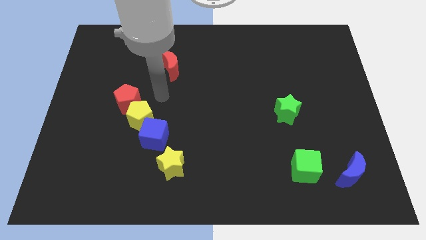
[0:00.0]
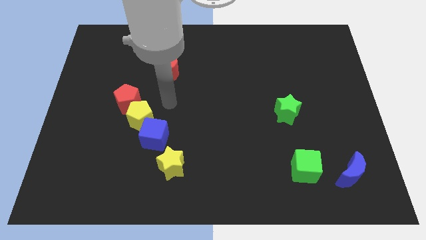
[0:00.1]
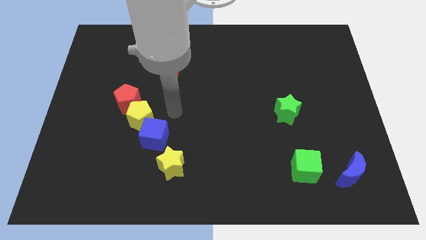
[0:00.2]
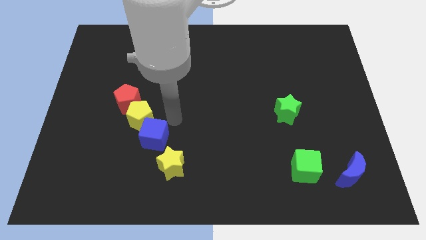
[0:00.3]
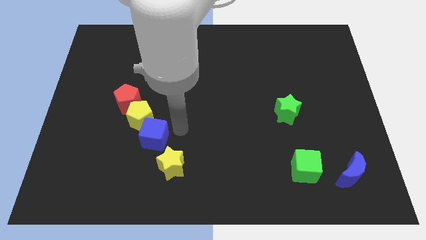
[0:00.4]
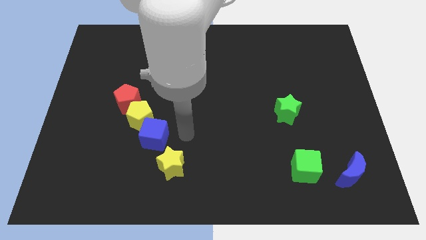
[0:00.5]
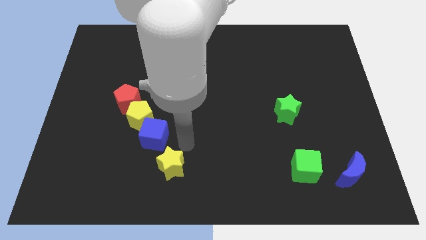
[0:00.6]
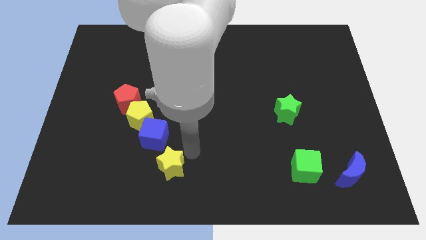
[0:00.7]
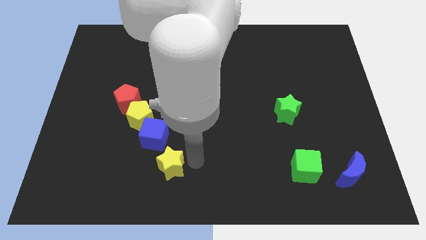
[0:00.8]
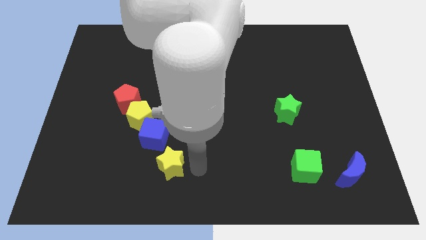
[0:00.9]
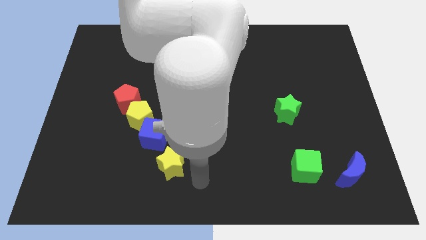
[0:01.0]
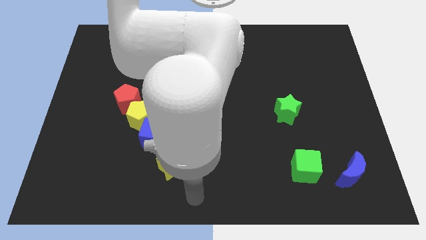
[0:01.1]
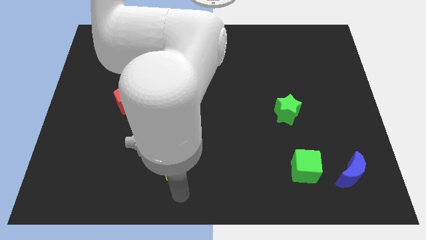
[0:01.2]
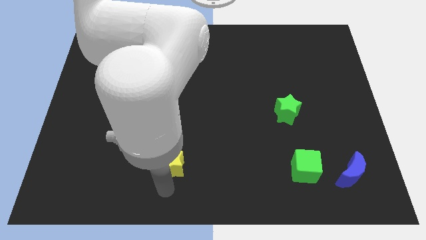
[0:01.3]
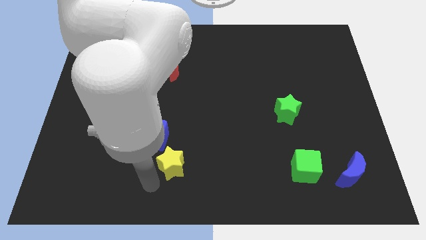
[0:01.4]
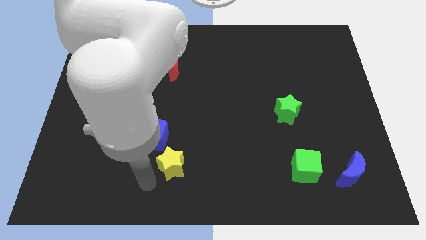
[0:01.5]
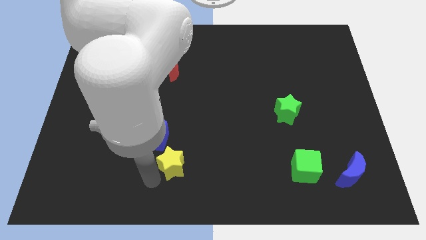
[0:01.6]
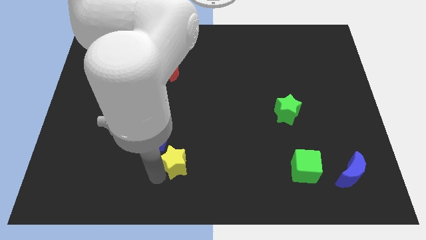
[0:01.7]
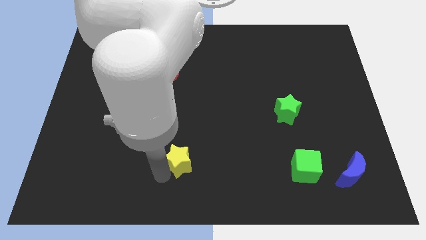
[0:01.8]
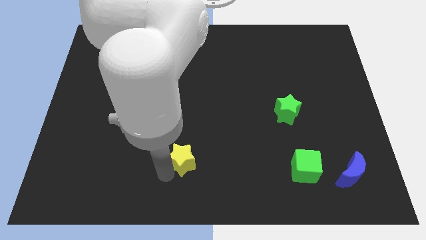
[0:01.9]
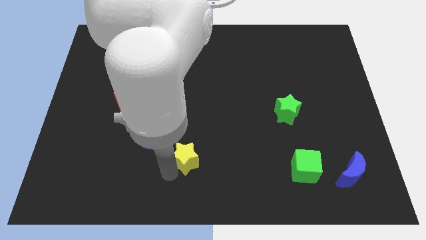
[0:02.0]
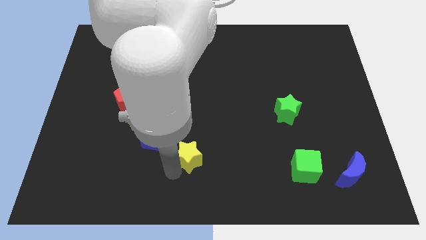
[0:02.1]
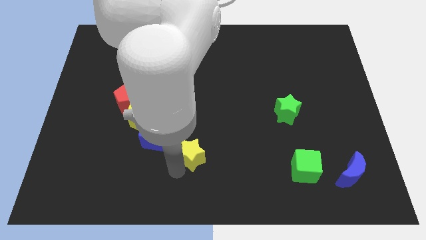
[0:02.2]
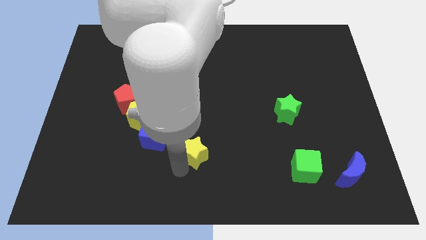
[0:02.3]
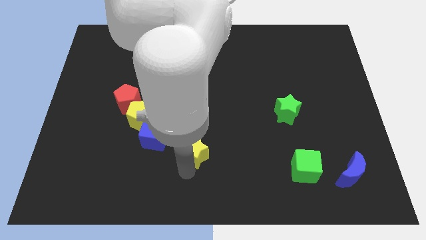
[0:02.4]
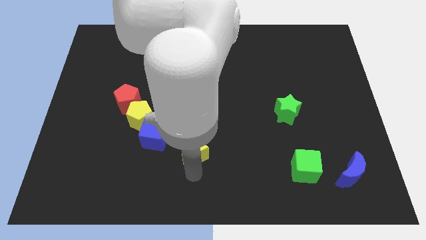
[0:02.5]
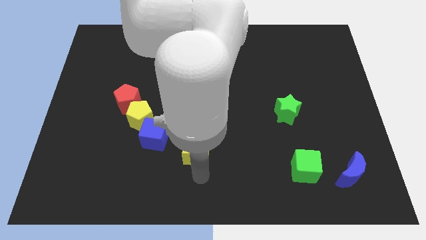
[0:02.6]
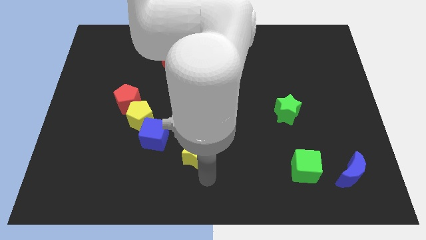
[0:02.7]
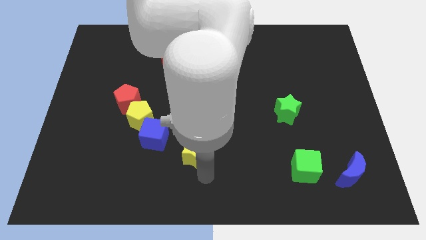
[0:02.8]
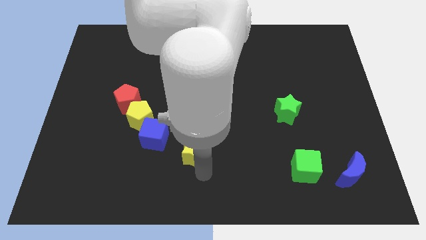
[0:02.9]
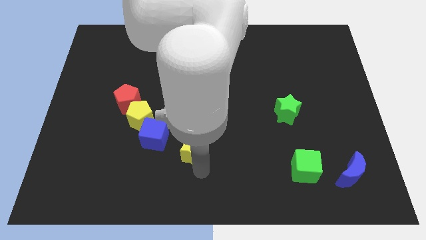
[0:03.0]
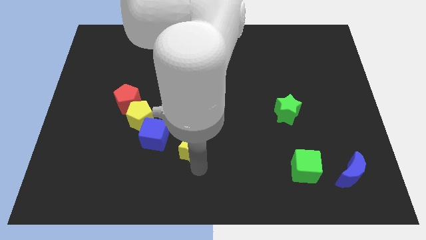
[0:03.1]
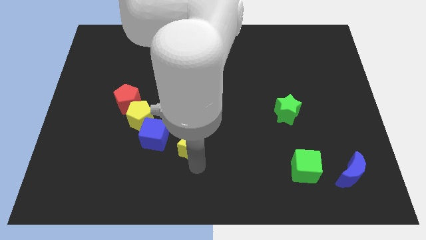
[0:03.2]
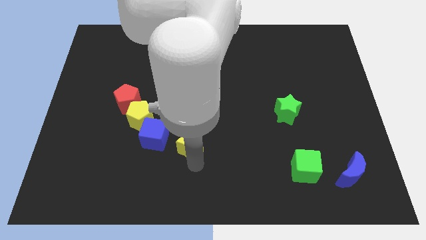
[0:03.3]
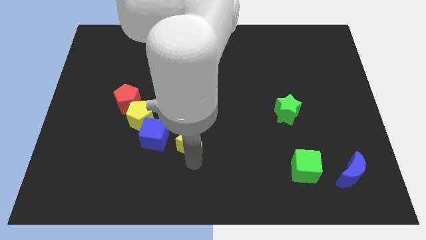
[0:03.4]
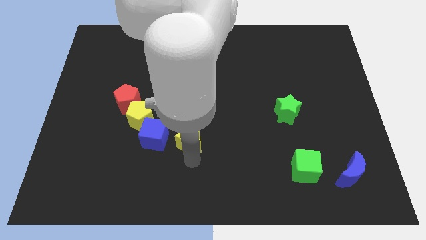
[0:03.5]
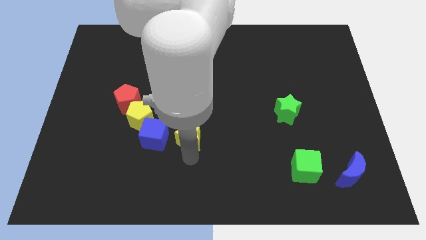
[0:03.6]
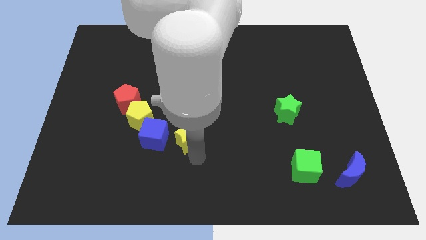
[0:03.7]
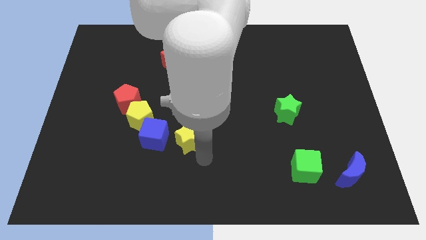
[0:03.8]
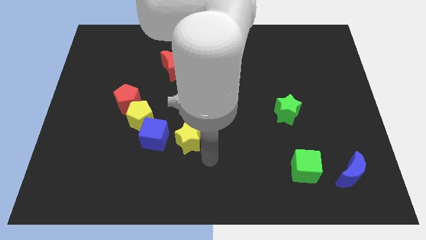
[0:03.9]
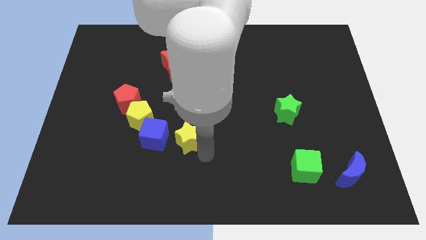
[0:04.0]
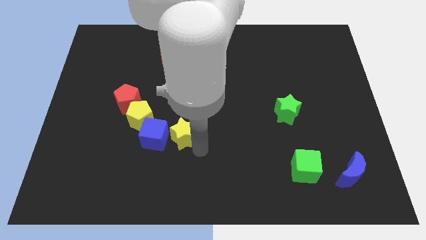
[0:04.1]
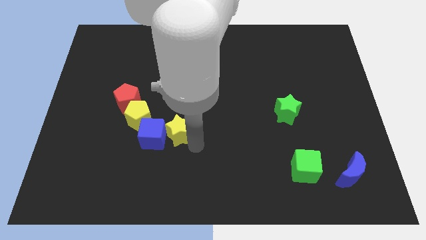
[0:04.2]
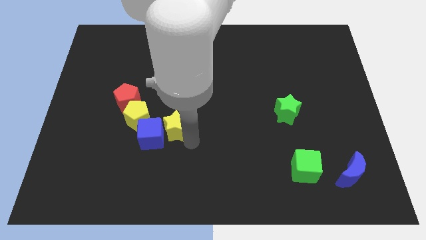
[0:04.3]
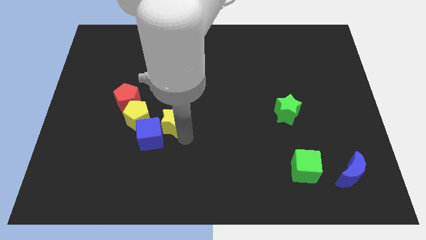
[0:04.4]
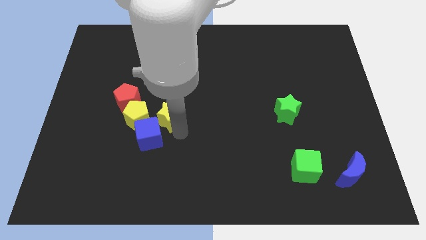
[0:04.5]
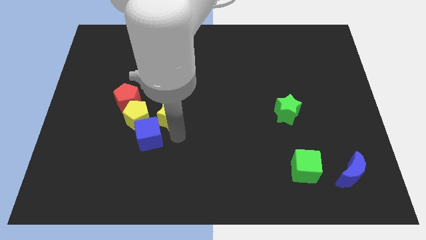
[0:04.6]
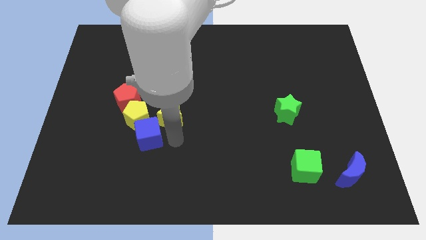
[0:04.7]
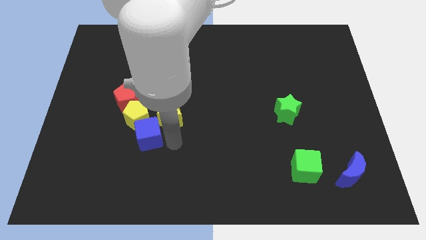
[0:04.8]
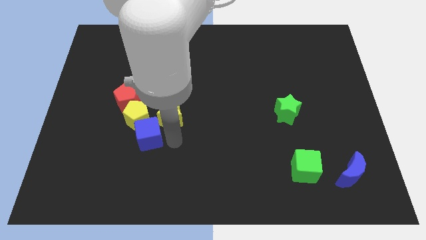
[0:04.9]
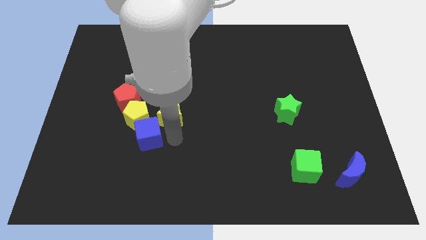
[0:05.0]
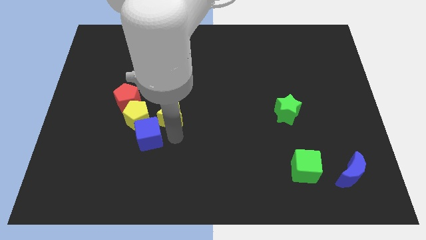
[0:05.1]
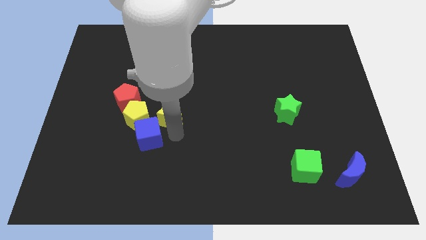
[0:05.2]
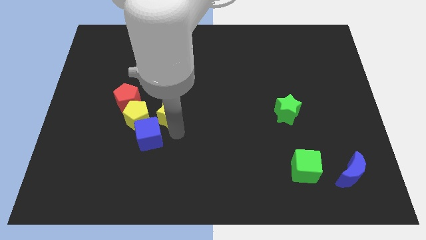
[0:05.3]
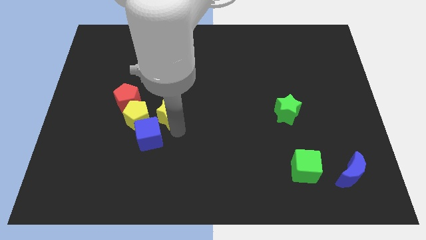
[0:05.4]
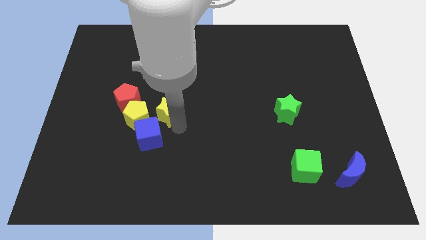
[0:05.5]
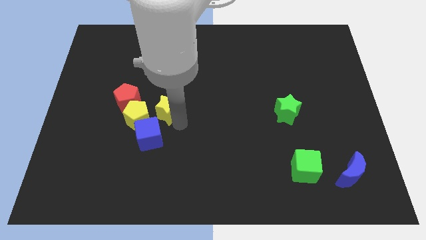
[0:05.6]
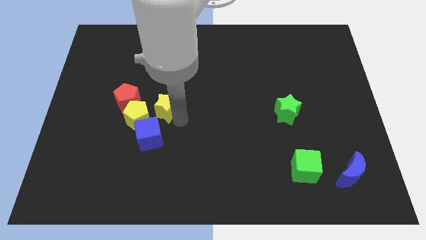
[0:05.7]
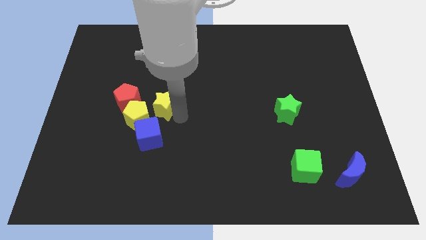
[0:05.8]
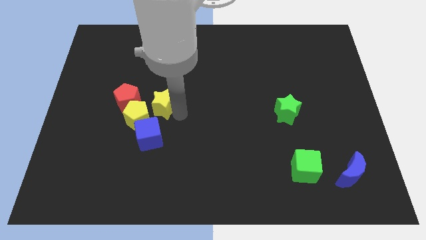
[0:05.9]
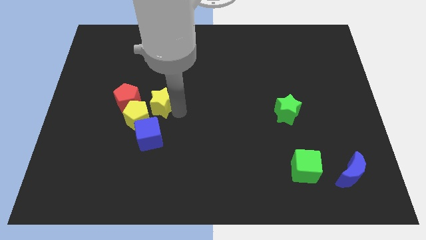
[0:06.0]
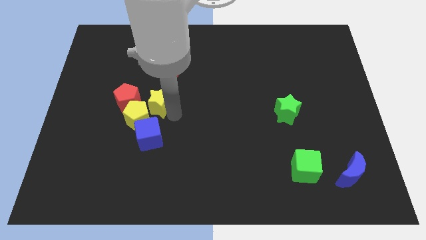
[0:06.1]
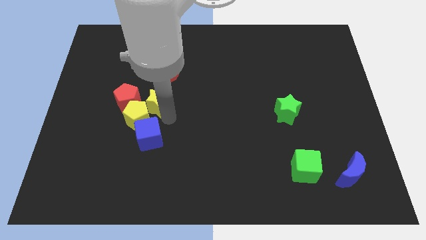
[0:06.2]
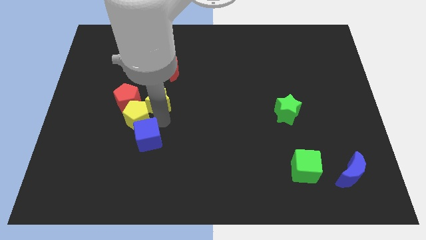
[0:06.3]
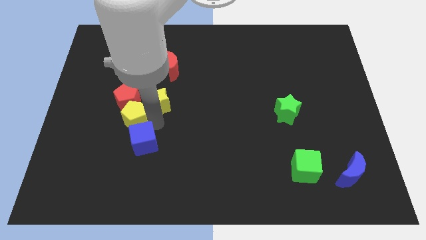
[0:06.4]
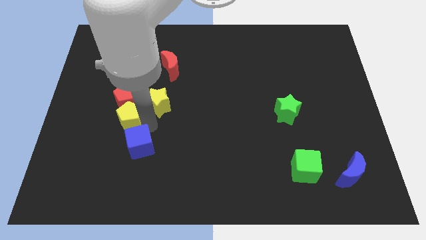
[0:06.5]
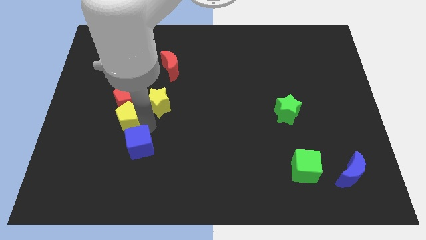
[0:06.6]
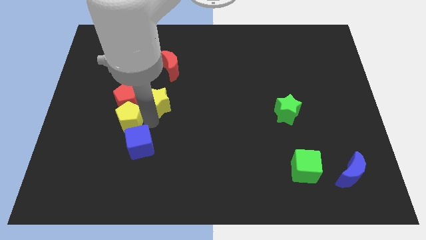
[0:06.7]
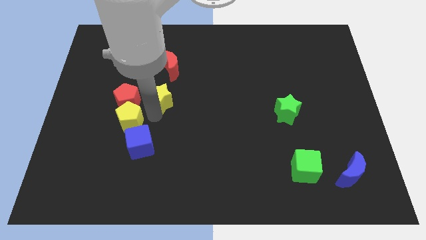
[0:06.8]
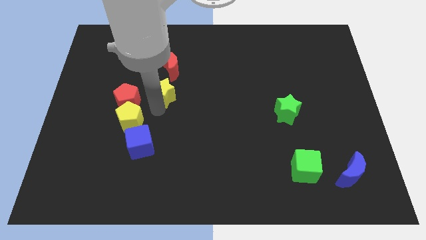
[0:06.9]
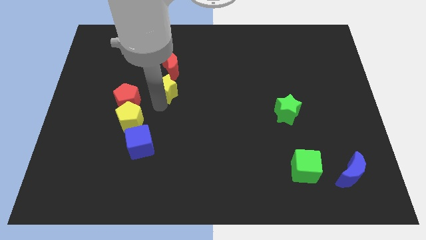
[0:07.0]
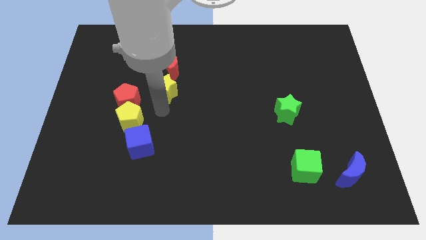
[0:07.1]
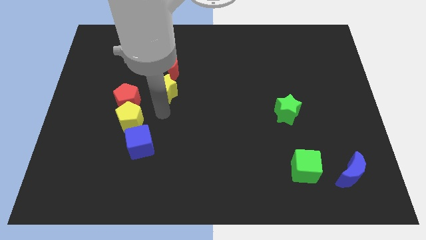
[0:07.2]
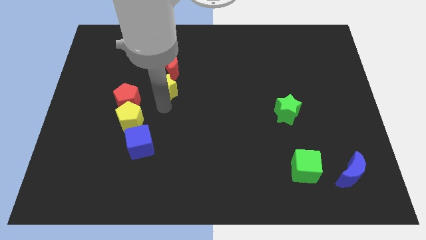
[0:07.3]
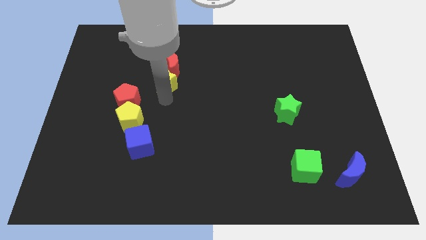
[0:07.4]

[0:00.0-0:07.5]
put the yellow star next to the red moon
